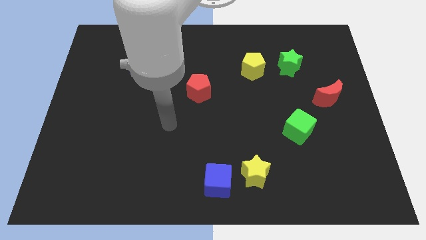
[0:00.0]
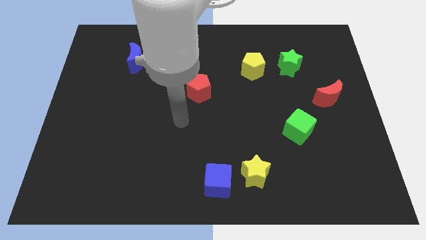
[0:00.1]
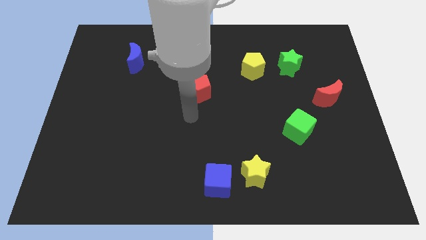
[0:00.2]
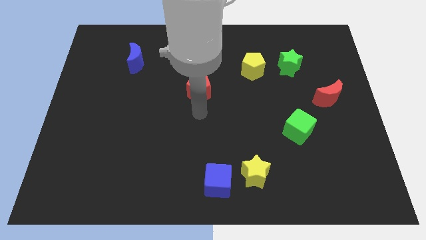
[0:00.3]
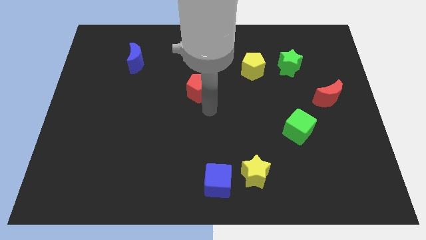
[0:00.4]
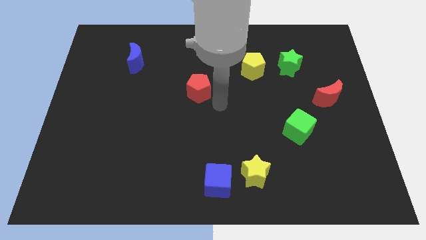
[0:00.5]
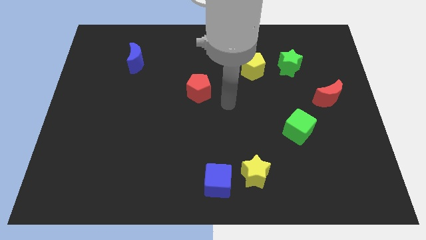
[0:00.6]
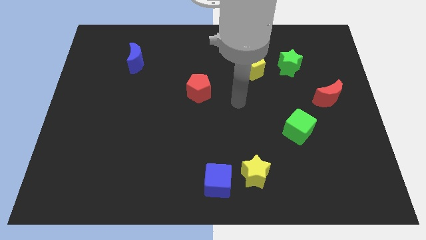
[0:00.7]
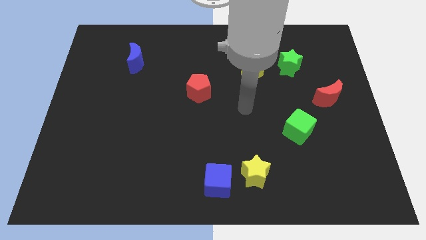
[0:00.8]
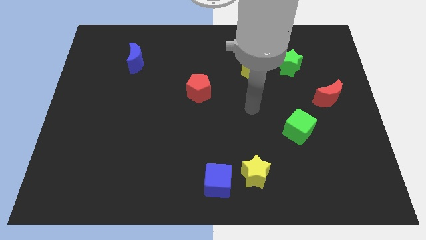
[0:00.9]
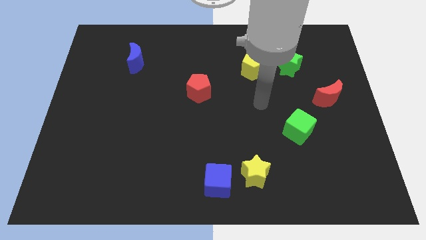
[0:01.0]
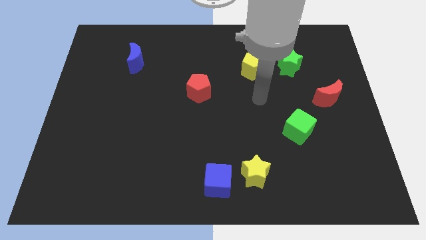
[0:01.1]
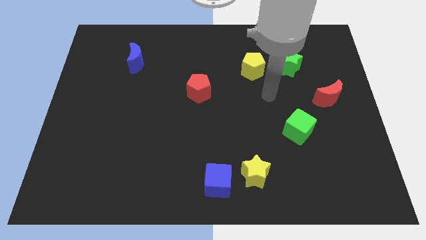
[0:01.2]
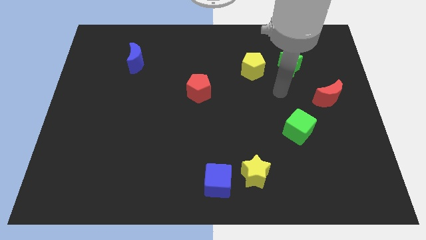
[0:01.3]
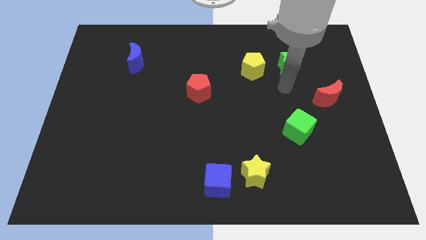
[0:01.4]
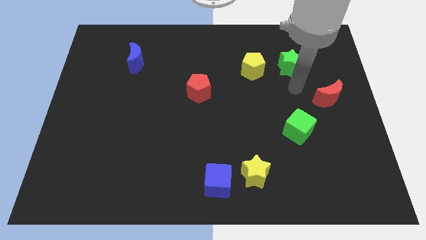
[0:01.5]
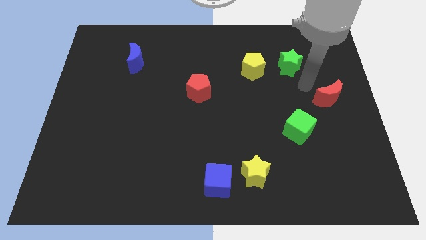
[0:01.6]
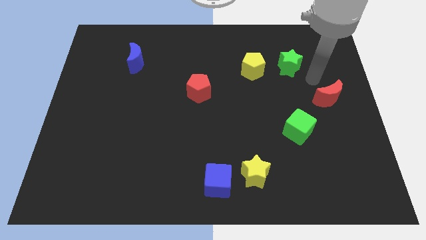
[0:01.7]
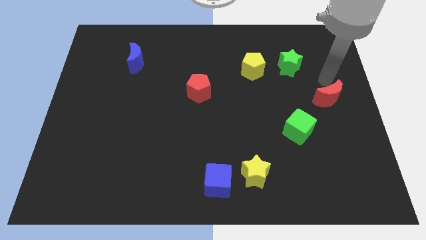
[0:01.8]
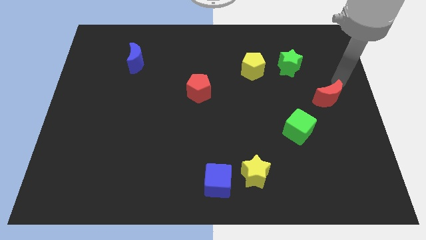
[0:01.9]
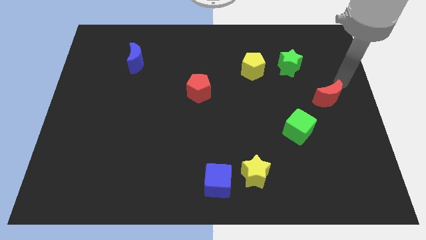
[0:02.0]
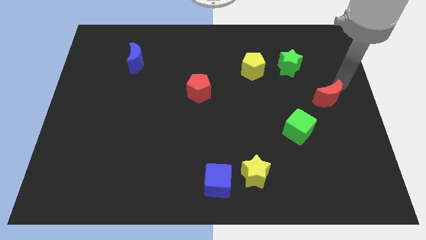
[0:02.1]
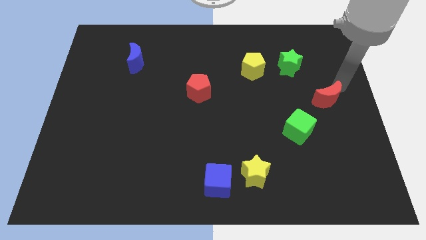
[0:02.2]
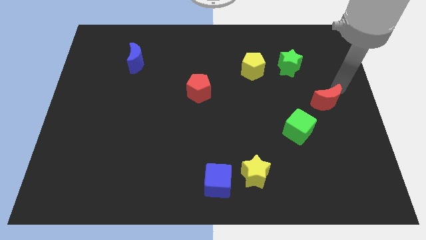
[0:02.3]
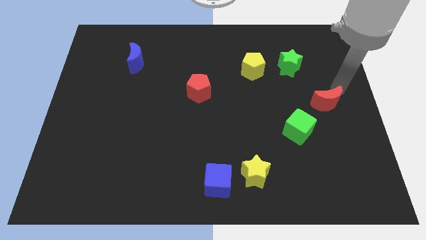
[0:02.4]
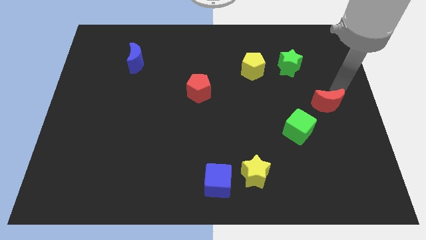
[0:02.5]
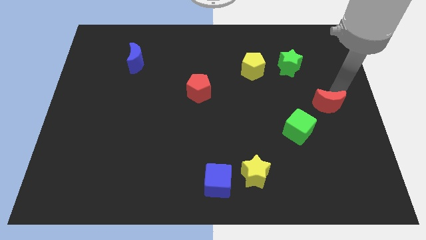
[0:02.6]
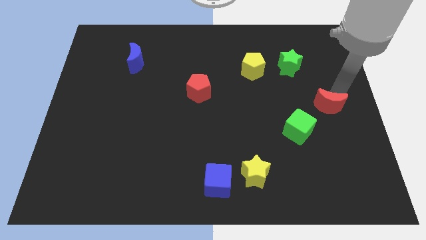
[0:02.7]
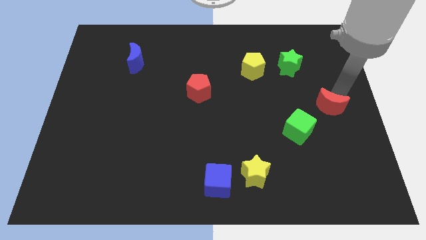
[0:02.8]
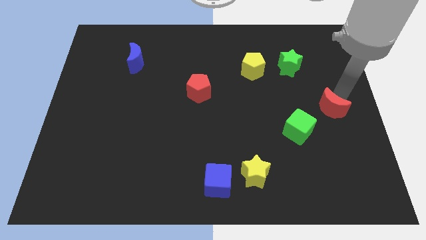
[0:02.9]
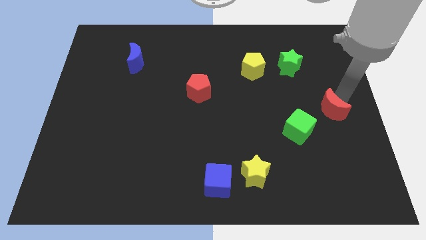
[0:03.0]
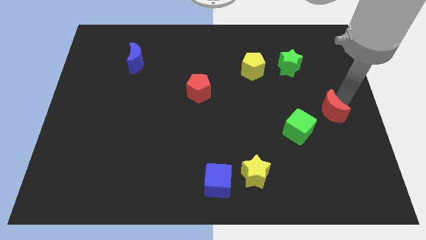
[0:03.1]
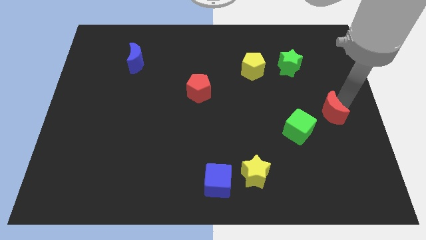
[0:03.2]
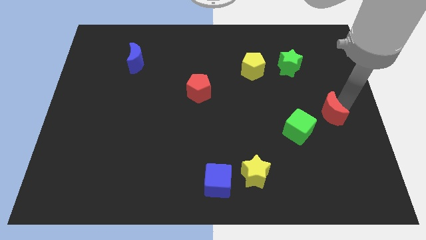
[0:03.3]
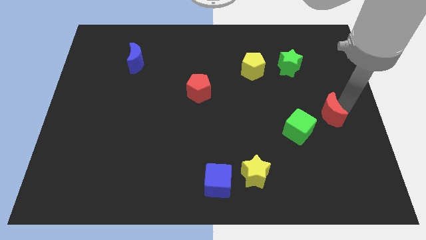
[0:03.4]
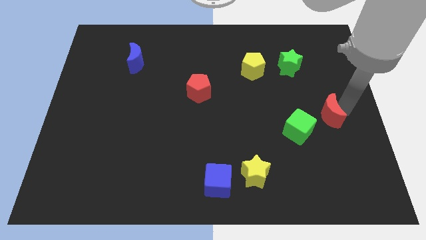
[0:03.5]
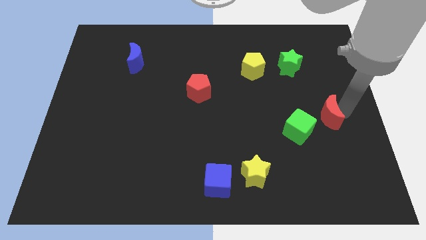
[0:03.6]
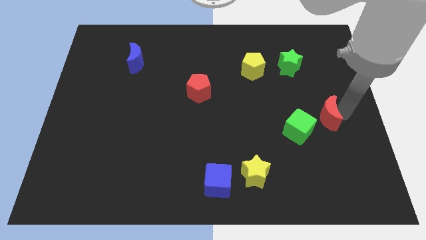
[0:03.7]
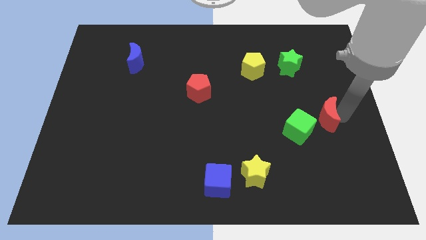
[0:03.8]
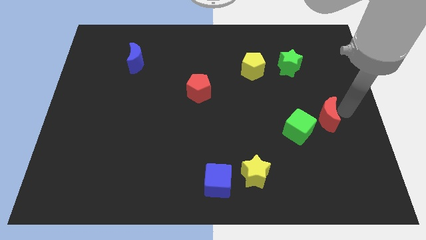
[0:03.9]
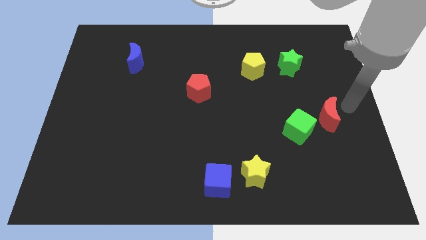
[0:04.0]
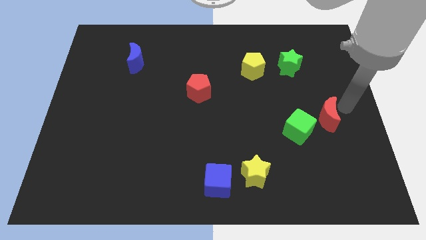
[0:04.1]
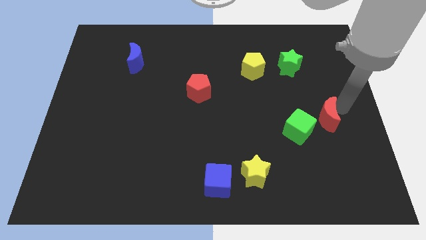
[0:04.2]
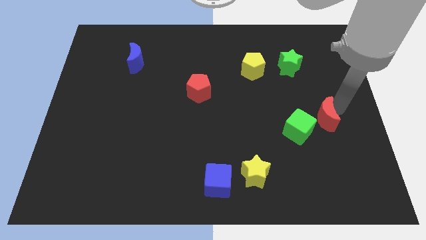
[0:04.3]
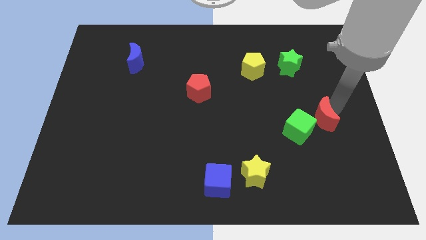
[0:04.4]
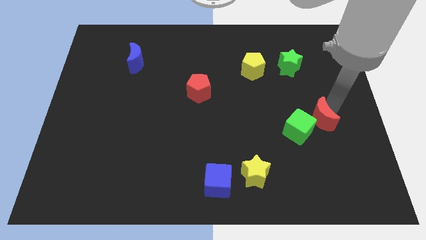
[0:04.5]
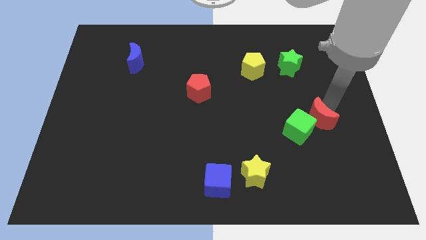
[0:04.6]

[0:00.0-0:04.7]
put the red moon towards the green cube

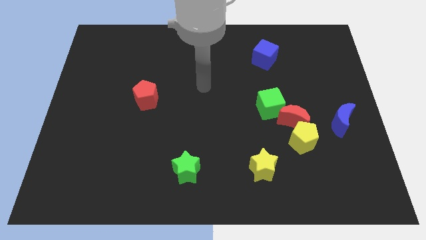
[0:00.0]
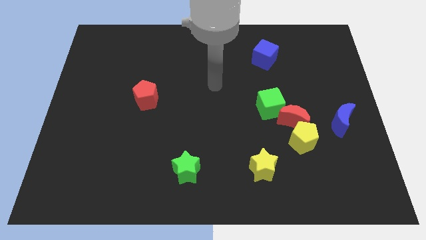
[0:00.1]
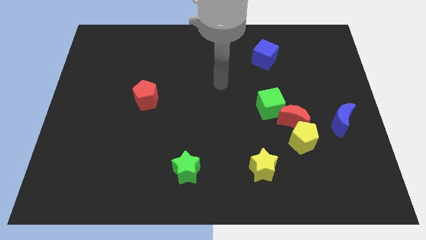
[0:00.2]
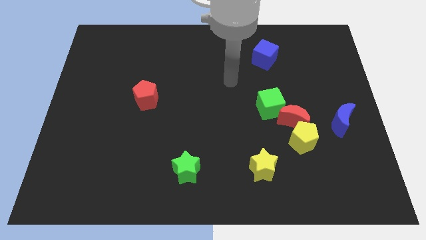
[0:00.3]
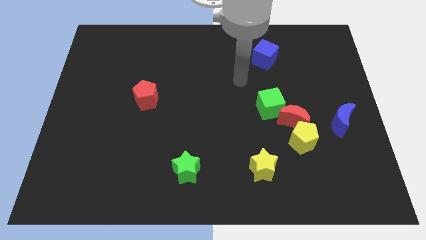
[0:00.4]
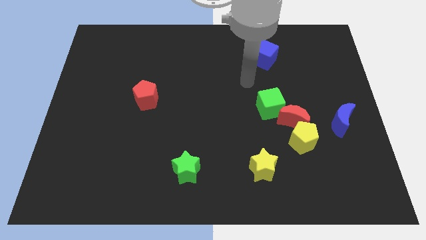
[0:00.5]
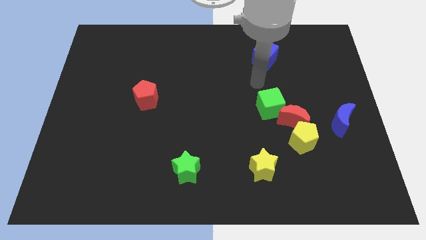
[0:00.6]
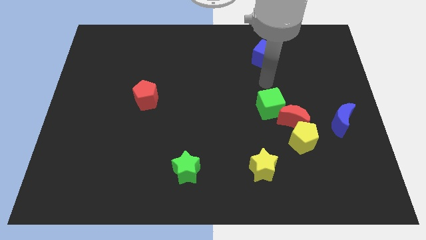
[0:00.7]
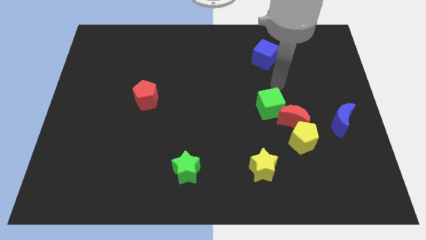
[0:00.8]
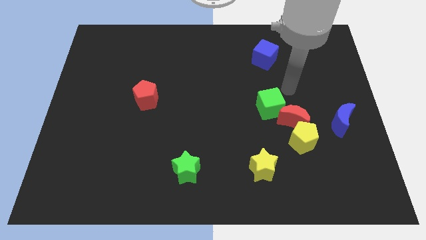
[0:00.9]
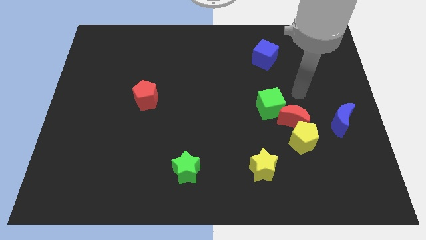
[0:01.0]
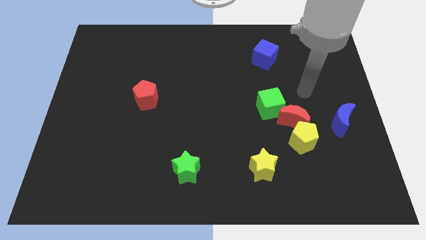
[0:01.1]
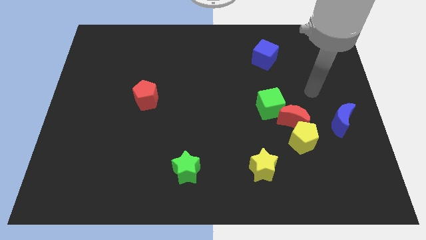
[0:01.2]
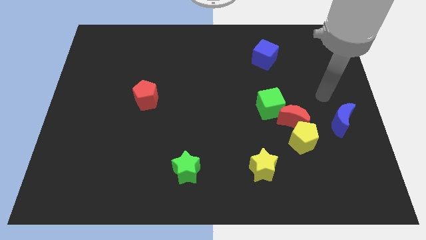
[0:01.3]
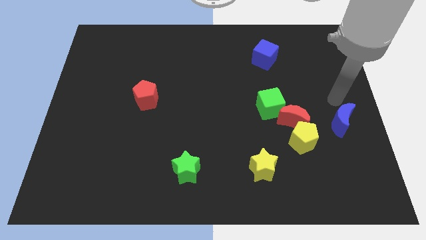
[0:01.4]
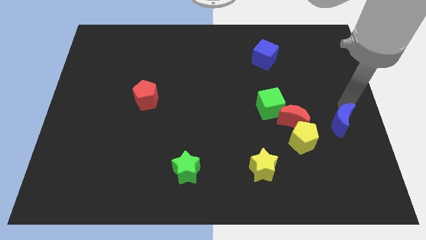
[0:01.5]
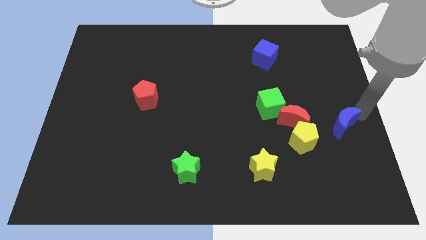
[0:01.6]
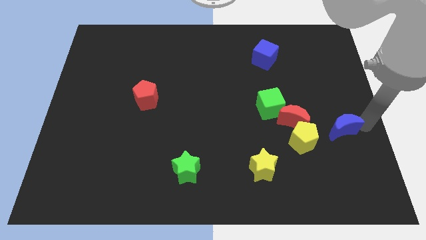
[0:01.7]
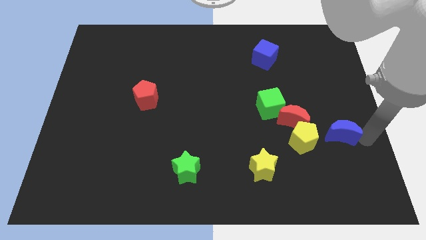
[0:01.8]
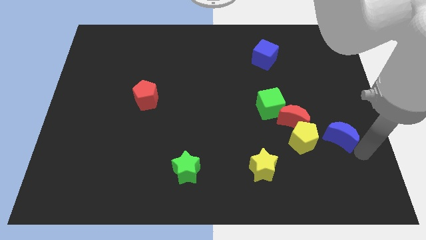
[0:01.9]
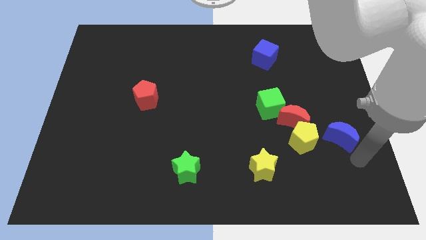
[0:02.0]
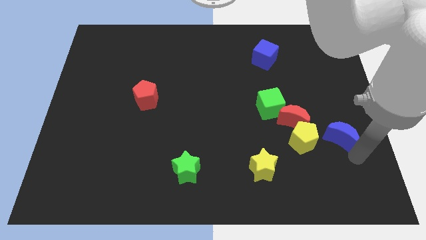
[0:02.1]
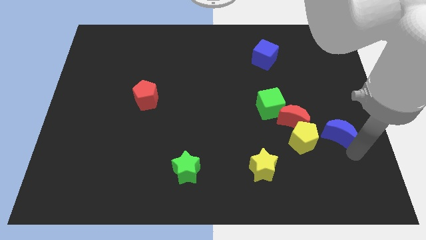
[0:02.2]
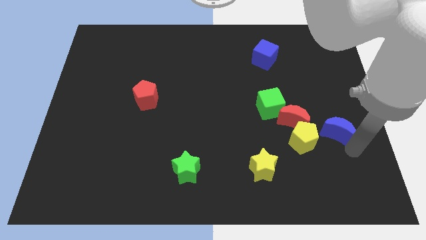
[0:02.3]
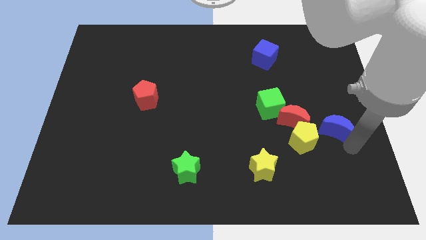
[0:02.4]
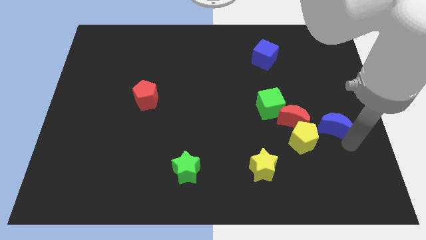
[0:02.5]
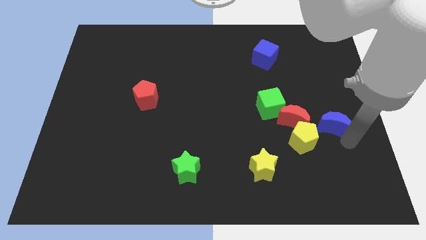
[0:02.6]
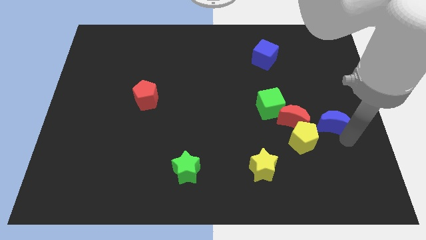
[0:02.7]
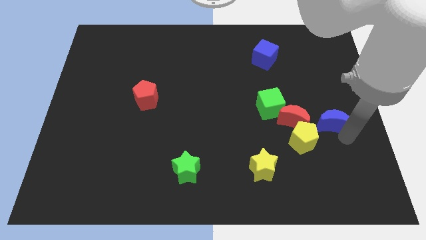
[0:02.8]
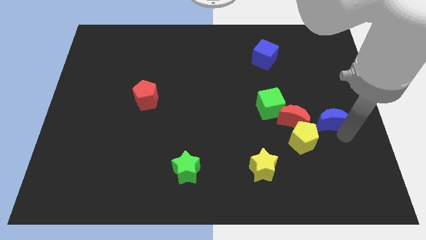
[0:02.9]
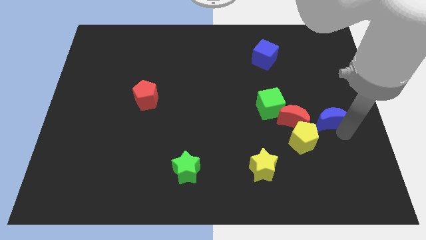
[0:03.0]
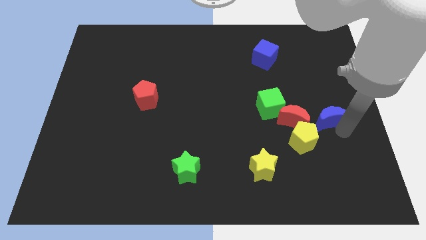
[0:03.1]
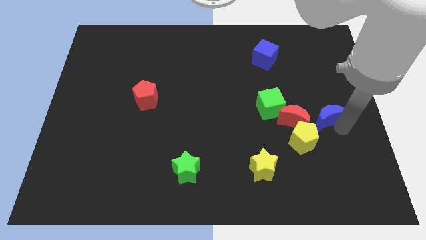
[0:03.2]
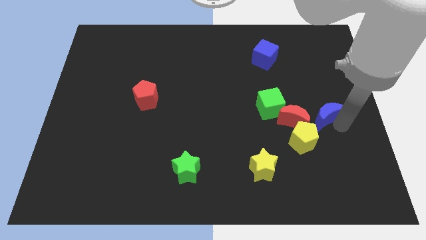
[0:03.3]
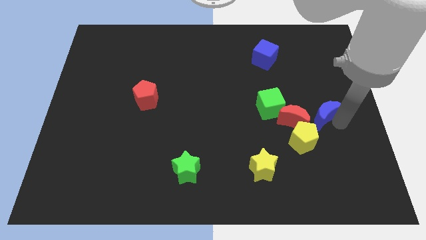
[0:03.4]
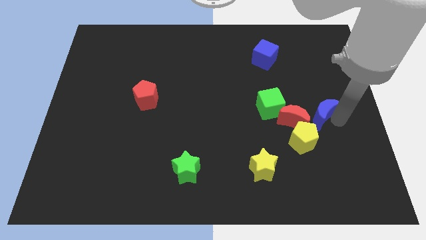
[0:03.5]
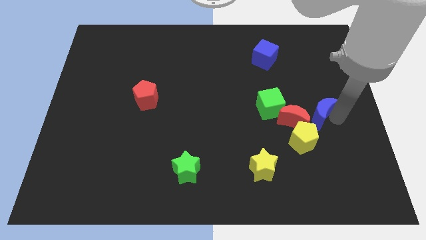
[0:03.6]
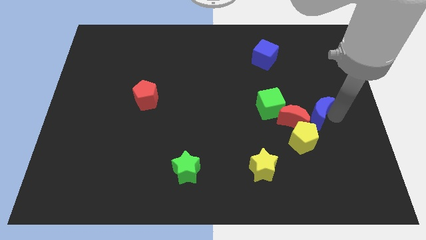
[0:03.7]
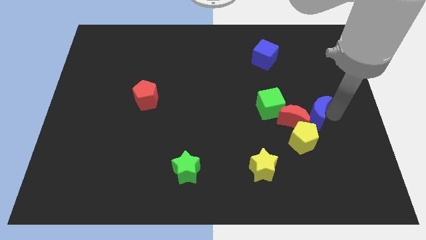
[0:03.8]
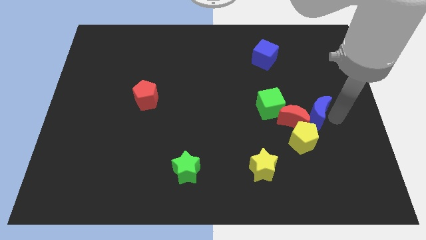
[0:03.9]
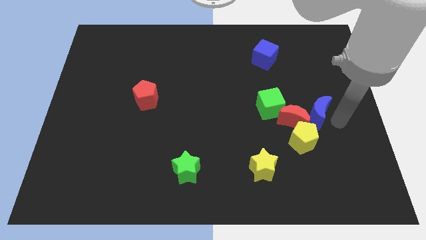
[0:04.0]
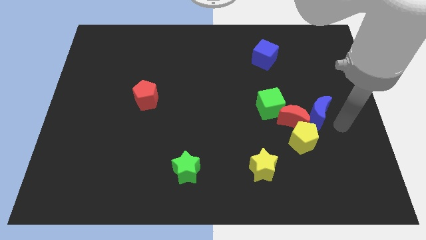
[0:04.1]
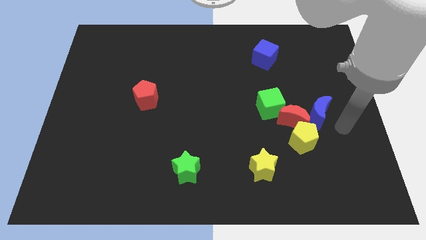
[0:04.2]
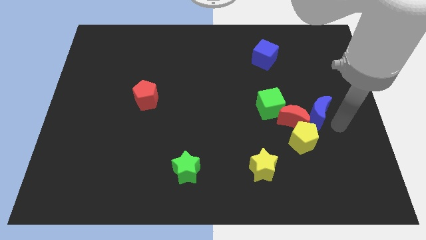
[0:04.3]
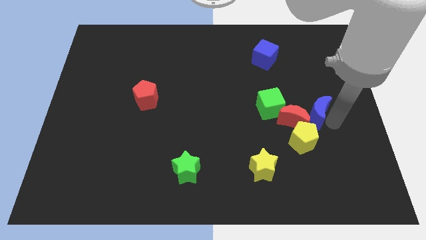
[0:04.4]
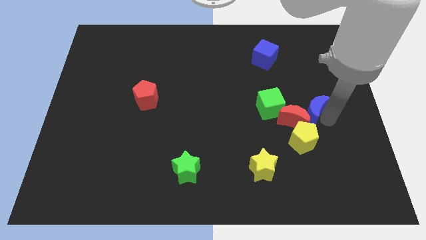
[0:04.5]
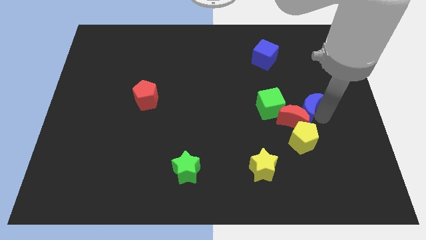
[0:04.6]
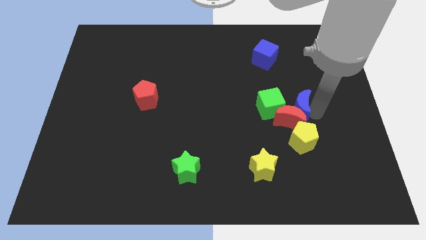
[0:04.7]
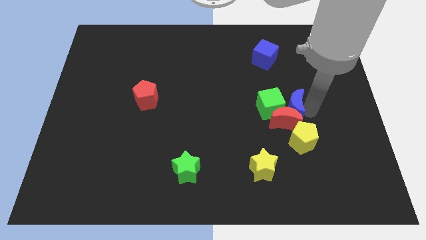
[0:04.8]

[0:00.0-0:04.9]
slide the blue moon towards the green cube
